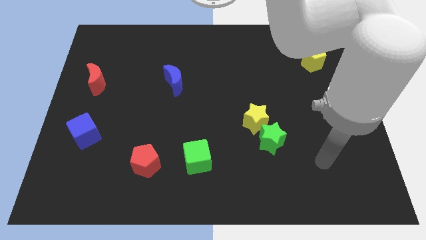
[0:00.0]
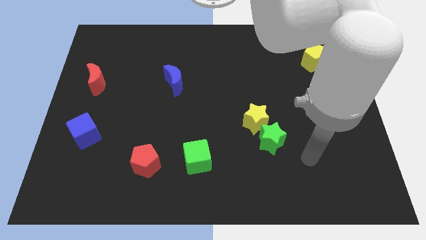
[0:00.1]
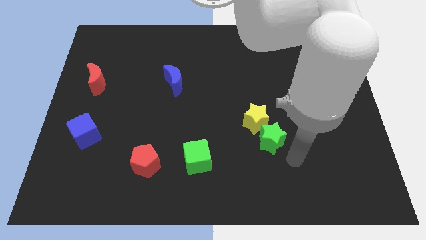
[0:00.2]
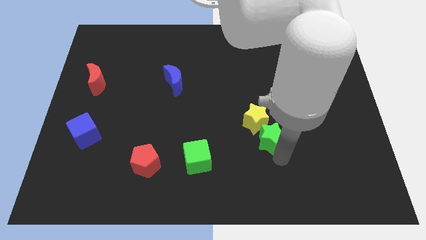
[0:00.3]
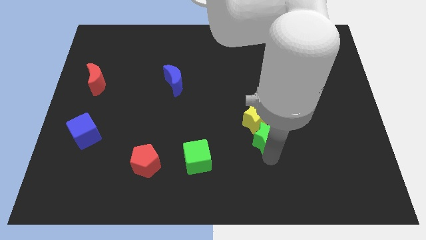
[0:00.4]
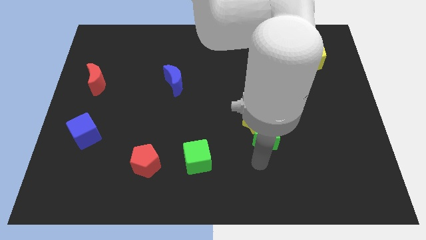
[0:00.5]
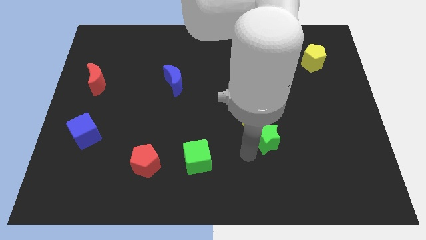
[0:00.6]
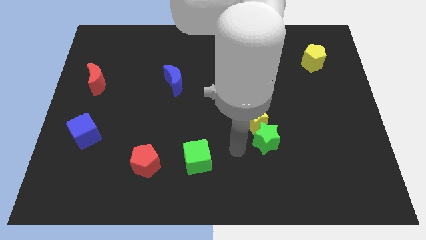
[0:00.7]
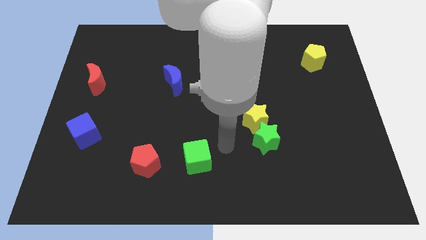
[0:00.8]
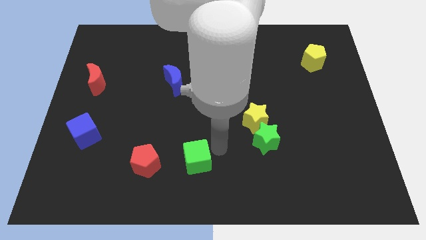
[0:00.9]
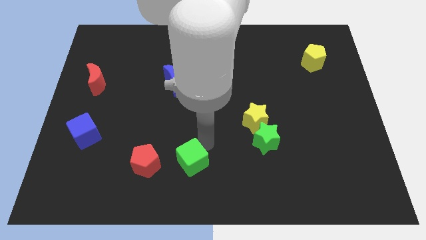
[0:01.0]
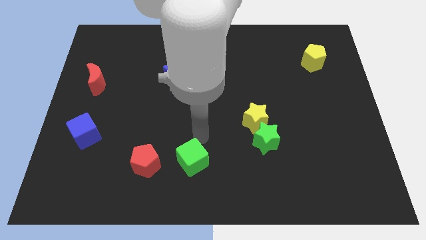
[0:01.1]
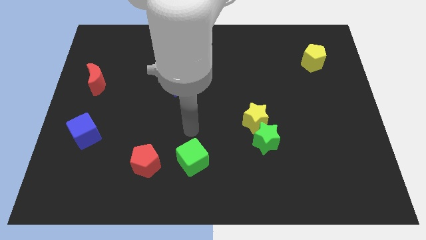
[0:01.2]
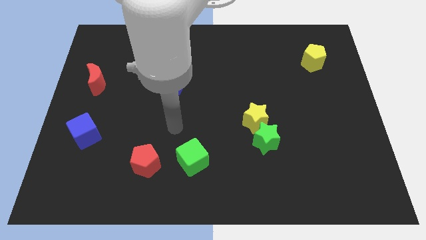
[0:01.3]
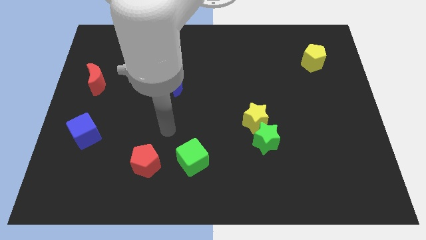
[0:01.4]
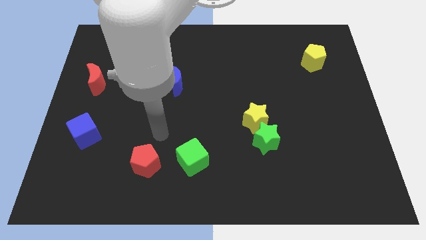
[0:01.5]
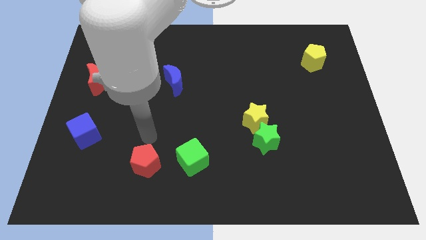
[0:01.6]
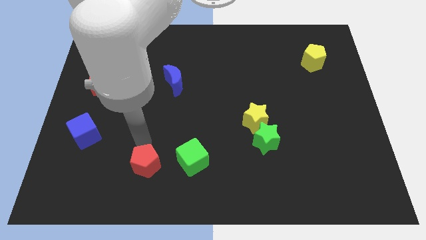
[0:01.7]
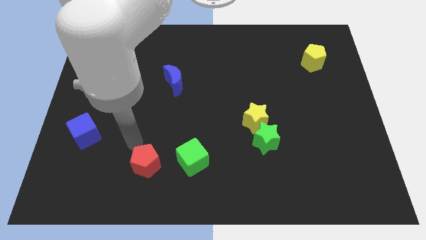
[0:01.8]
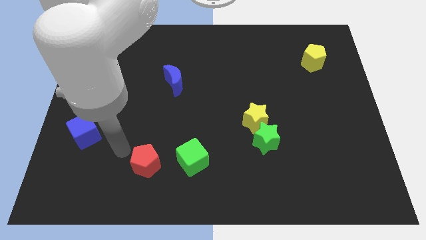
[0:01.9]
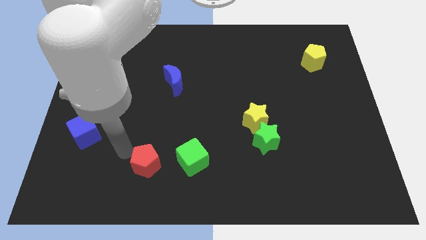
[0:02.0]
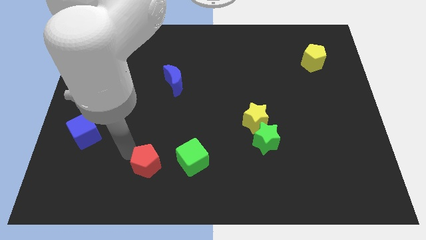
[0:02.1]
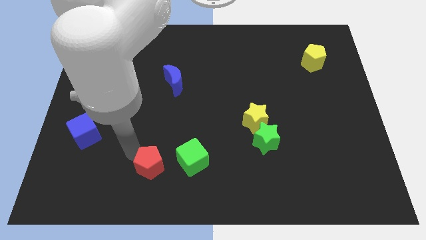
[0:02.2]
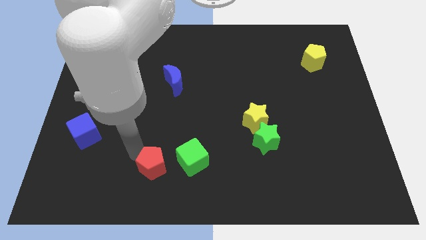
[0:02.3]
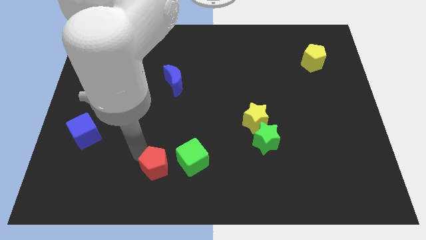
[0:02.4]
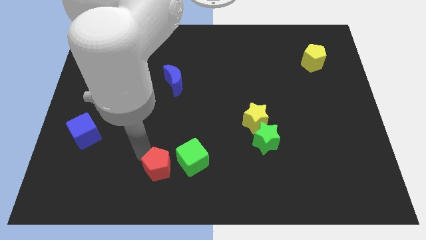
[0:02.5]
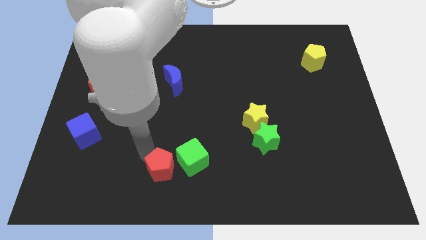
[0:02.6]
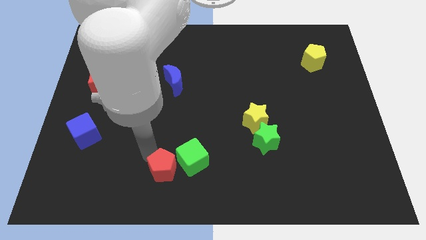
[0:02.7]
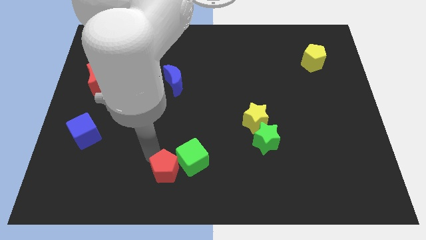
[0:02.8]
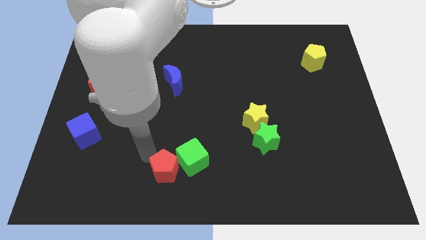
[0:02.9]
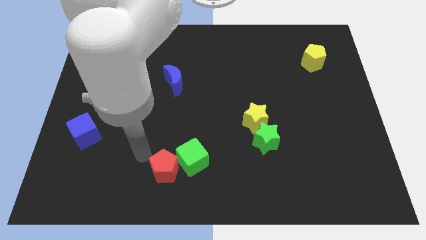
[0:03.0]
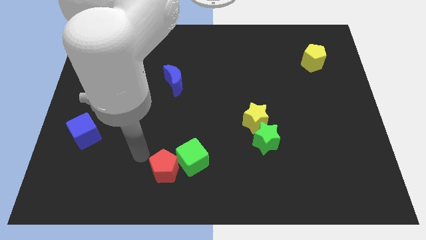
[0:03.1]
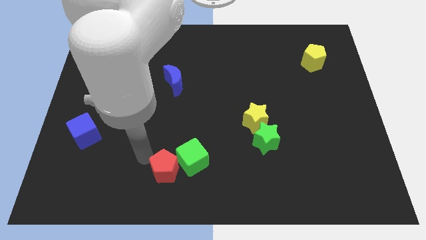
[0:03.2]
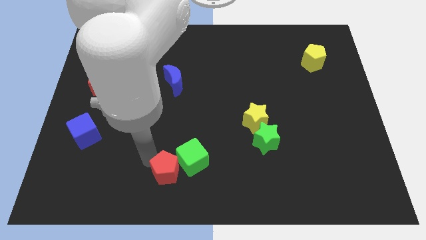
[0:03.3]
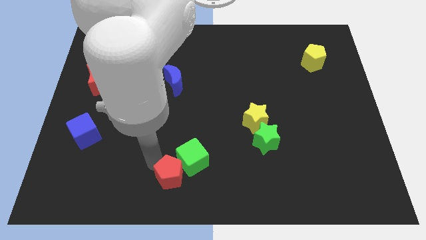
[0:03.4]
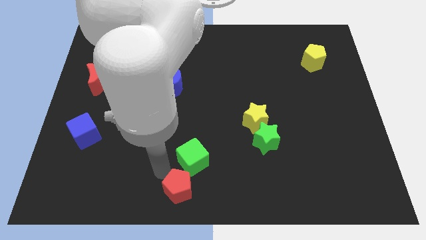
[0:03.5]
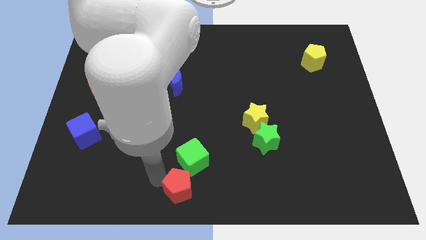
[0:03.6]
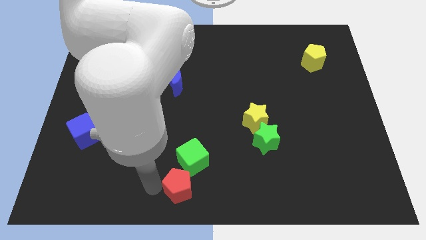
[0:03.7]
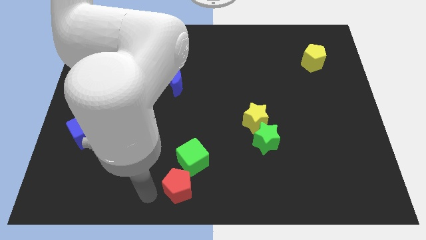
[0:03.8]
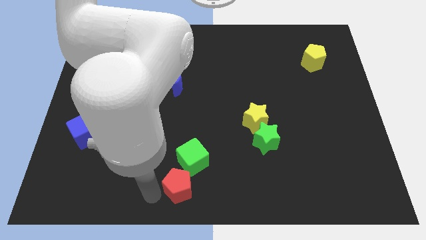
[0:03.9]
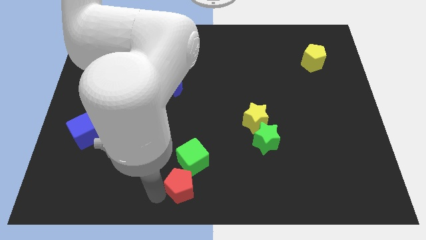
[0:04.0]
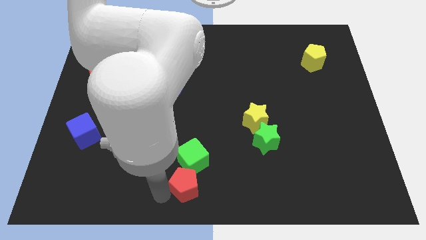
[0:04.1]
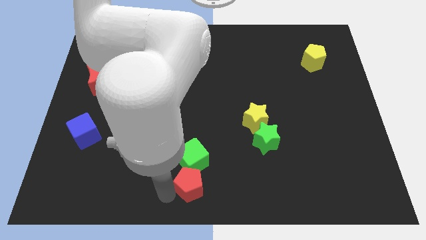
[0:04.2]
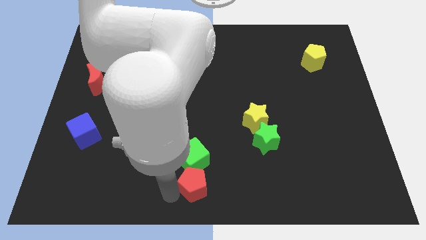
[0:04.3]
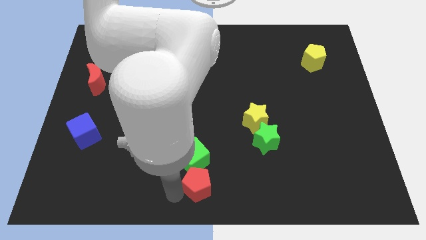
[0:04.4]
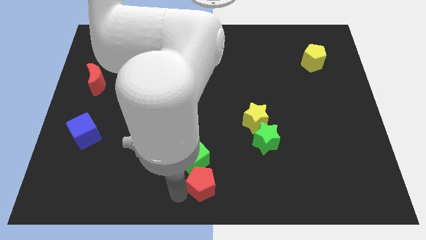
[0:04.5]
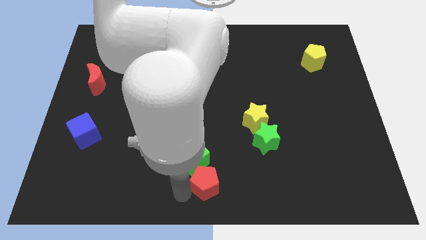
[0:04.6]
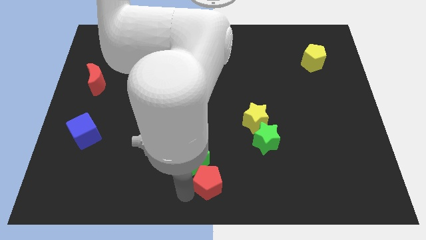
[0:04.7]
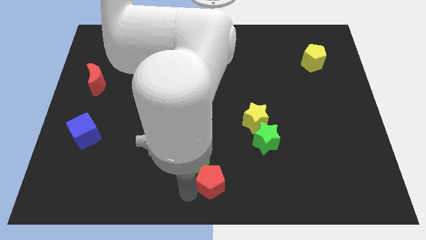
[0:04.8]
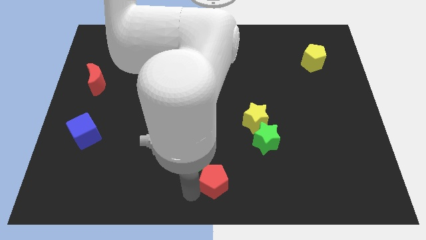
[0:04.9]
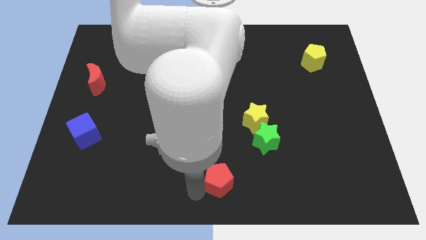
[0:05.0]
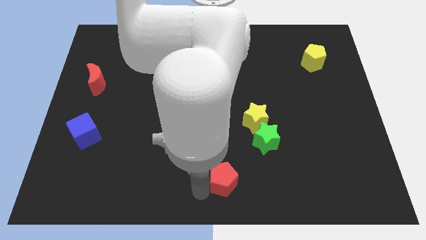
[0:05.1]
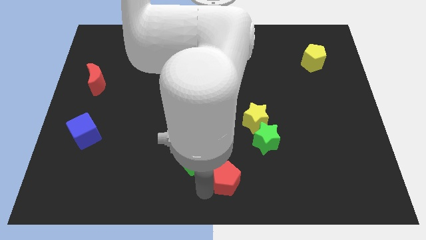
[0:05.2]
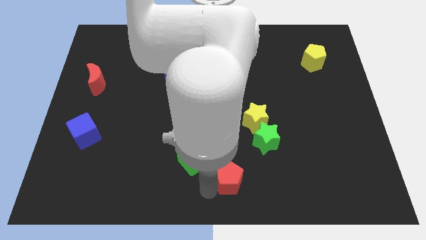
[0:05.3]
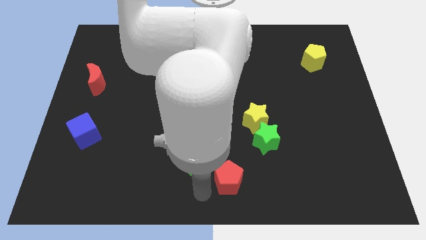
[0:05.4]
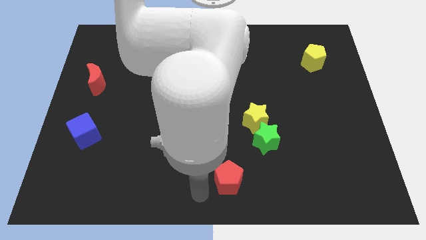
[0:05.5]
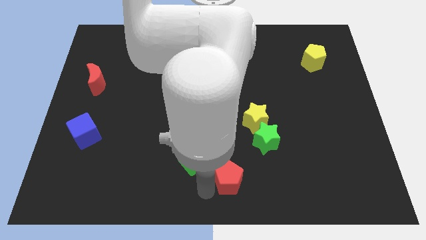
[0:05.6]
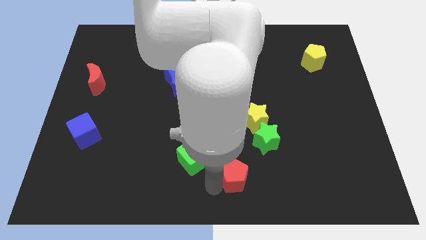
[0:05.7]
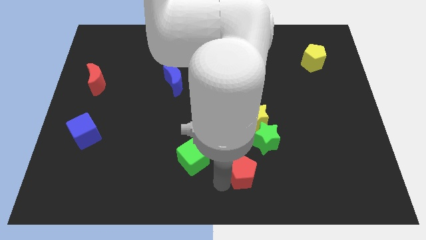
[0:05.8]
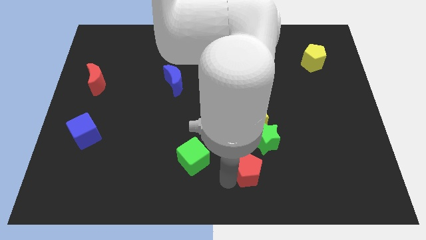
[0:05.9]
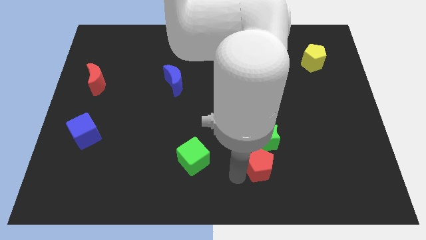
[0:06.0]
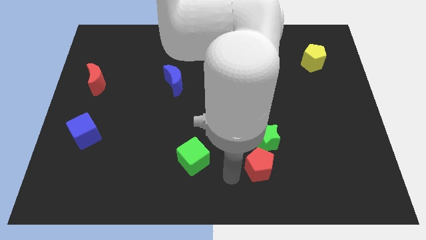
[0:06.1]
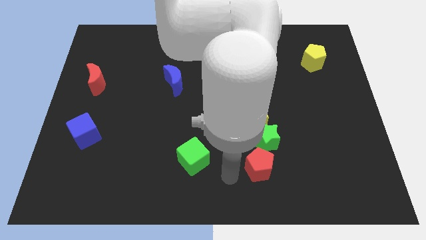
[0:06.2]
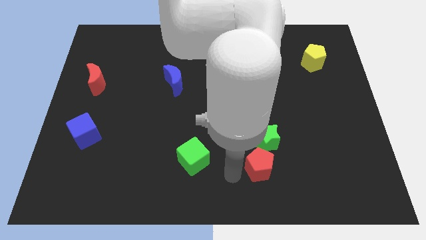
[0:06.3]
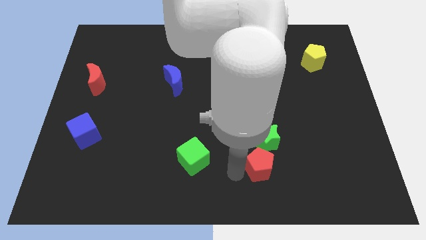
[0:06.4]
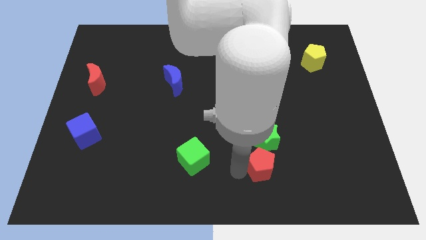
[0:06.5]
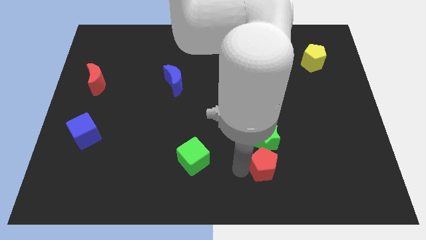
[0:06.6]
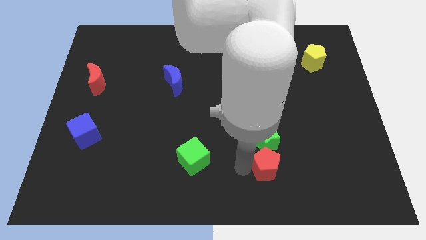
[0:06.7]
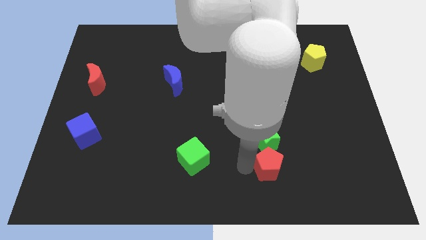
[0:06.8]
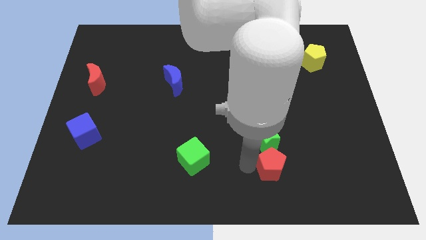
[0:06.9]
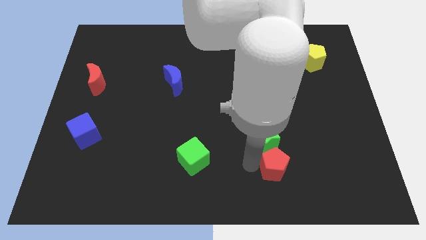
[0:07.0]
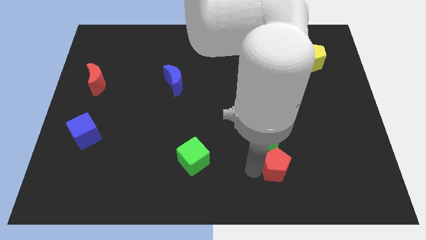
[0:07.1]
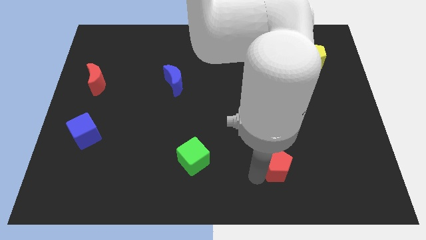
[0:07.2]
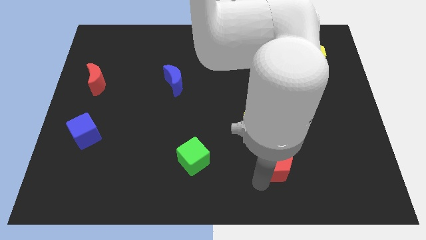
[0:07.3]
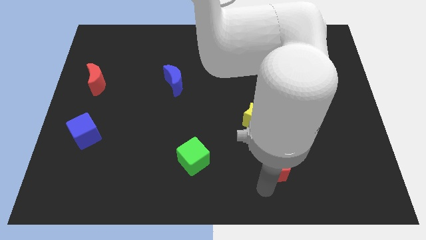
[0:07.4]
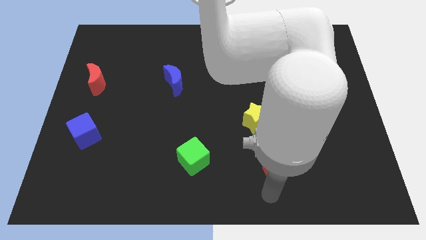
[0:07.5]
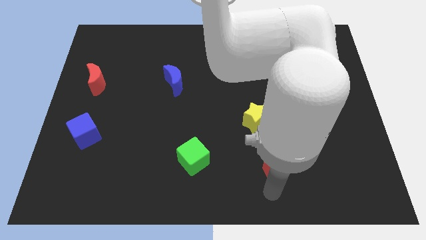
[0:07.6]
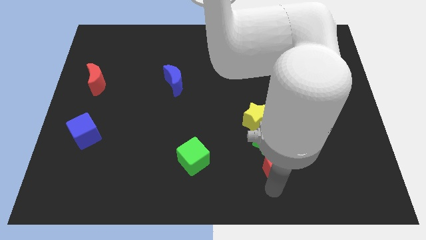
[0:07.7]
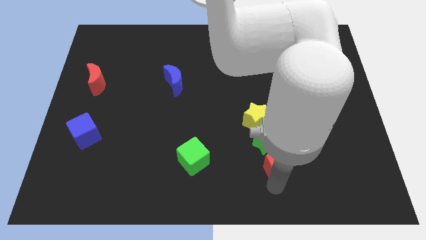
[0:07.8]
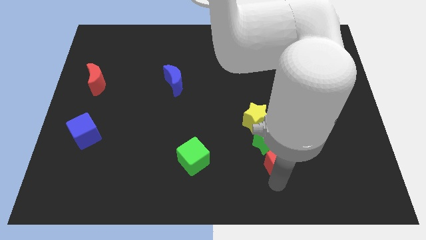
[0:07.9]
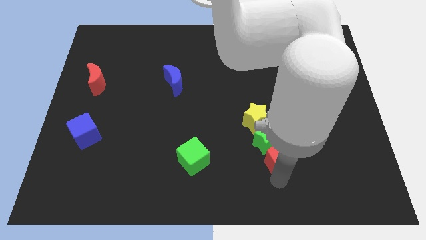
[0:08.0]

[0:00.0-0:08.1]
put the red pentagon to the bottom right side of the yellow star
